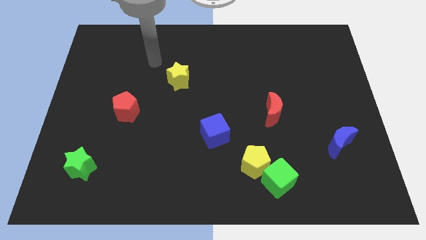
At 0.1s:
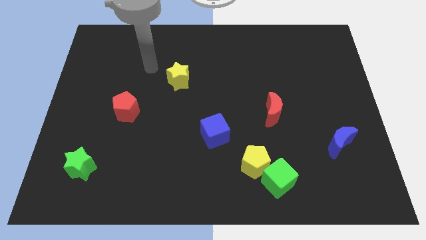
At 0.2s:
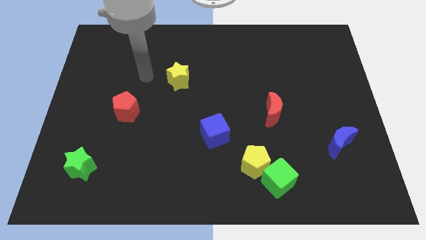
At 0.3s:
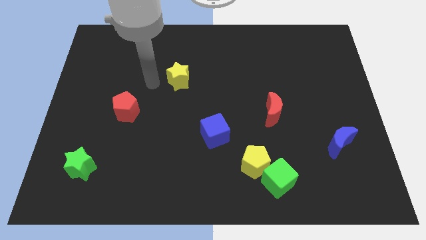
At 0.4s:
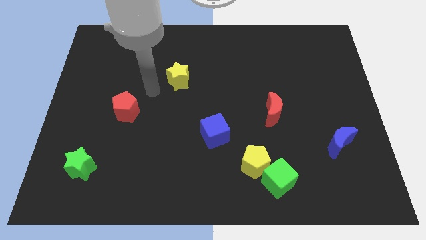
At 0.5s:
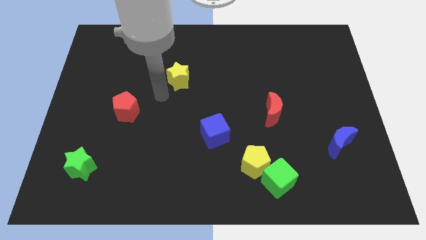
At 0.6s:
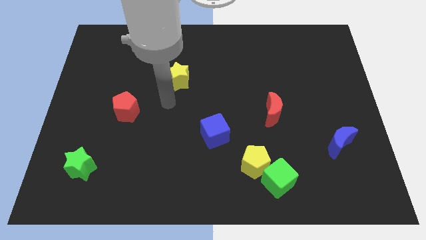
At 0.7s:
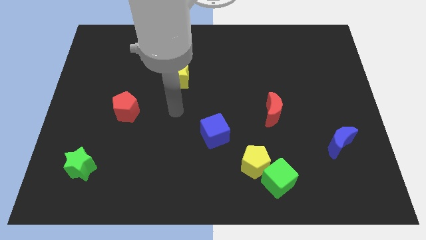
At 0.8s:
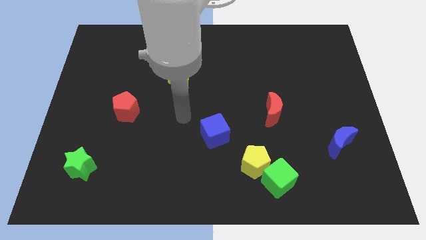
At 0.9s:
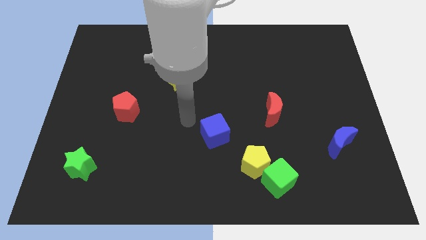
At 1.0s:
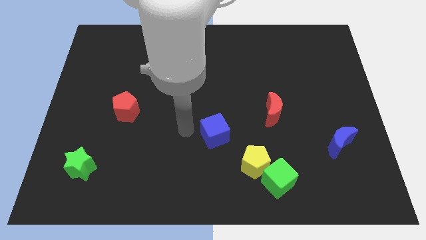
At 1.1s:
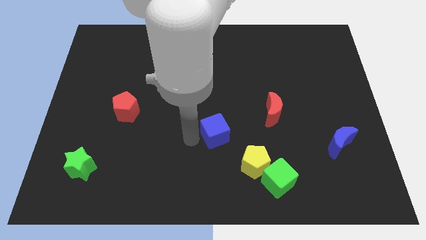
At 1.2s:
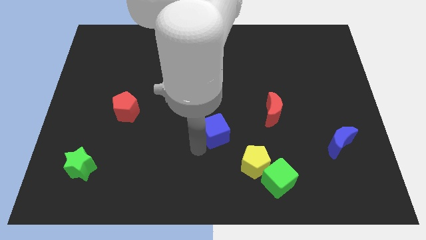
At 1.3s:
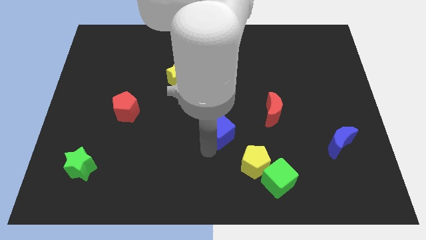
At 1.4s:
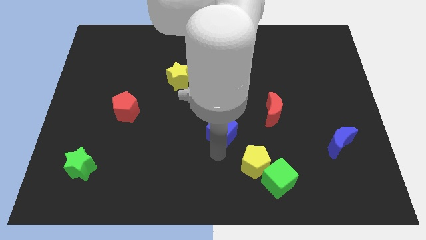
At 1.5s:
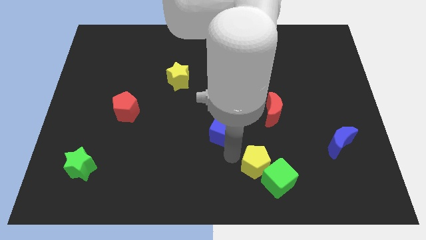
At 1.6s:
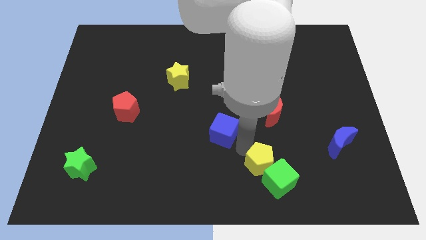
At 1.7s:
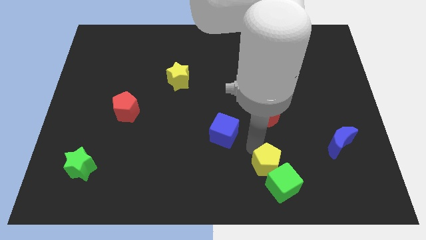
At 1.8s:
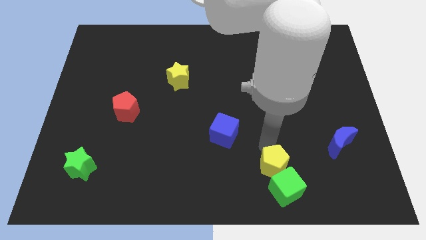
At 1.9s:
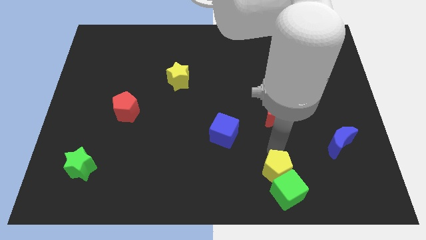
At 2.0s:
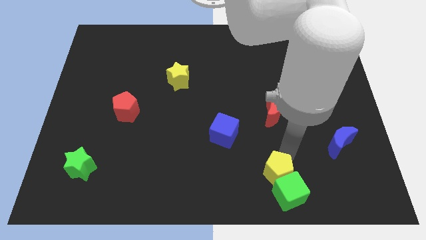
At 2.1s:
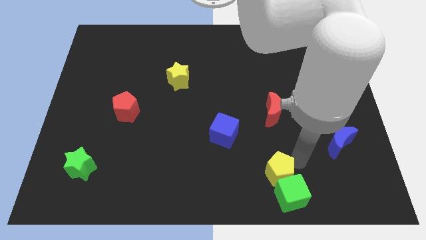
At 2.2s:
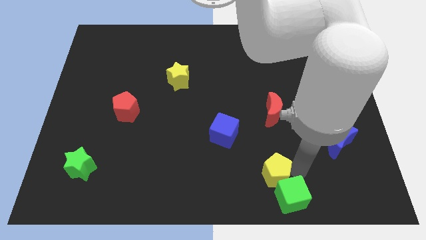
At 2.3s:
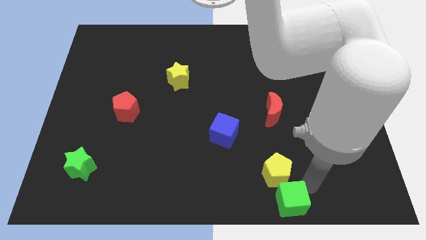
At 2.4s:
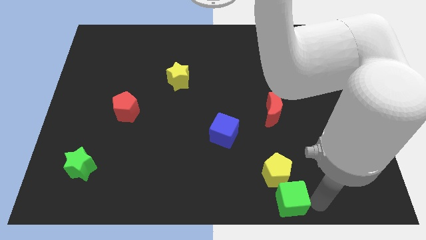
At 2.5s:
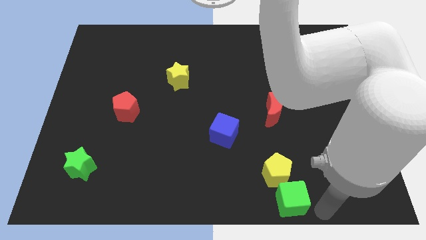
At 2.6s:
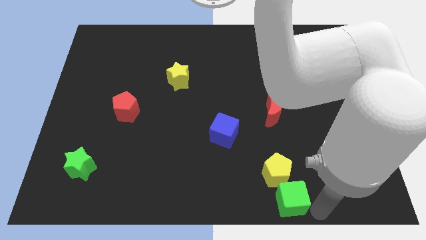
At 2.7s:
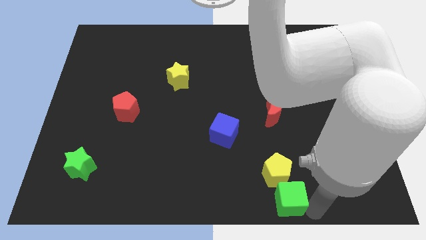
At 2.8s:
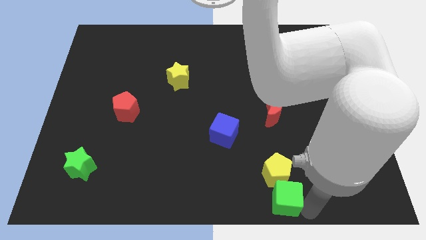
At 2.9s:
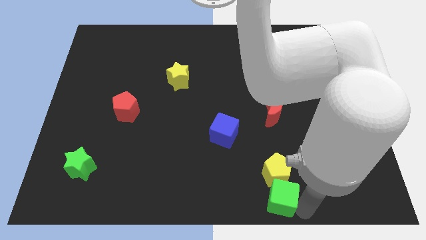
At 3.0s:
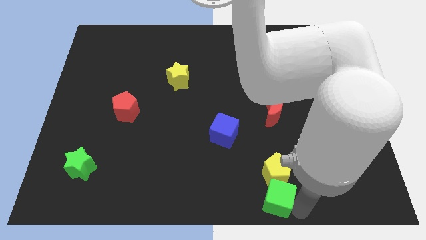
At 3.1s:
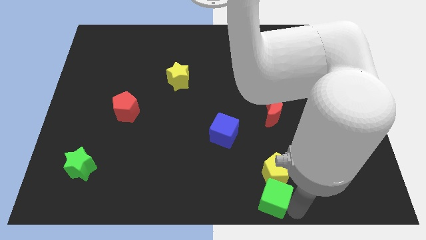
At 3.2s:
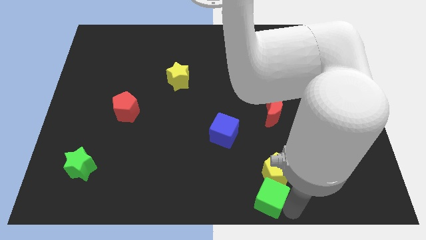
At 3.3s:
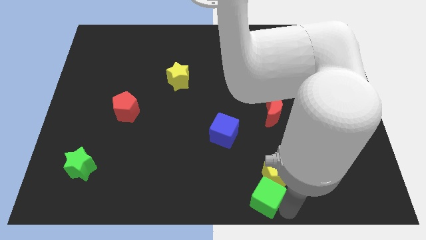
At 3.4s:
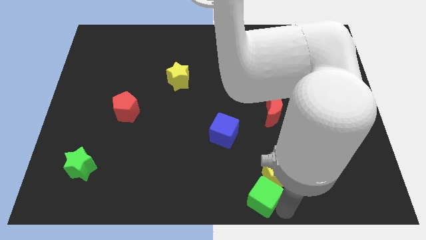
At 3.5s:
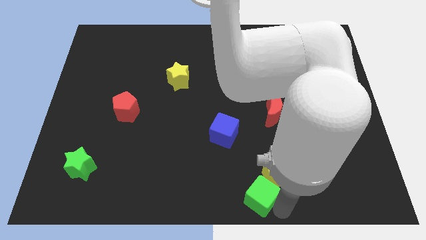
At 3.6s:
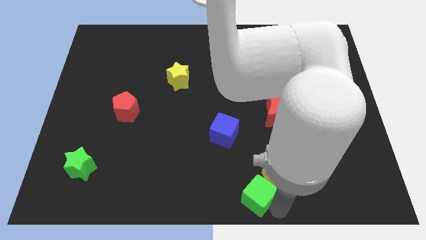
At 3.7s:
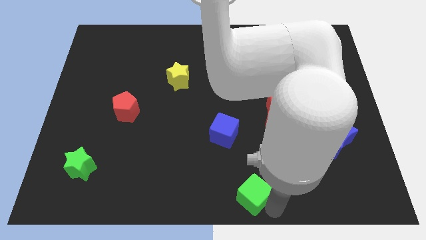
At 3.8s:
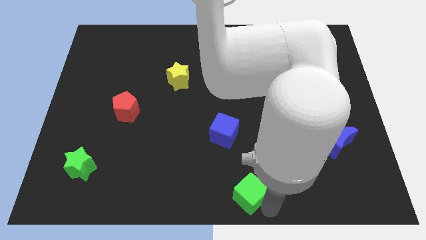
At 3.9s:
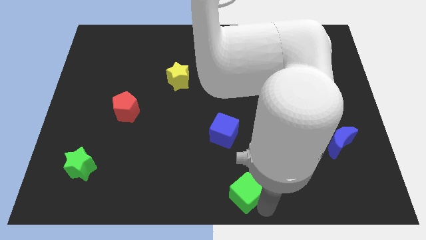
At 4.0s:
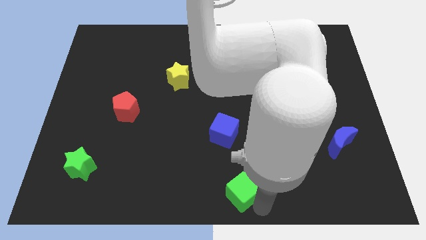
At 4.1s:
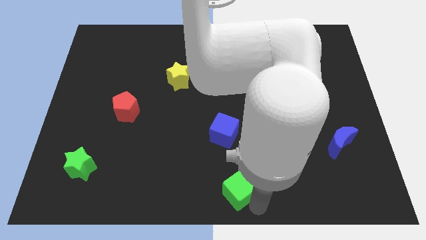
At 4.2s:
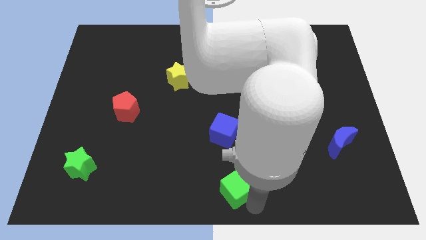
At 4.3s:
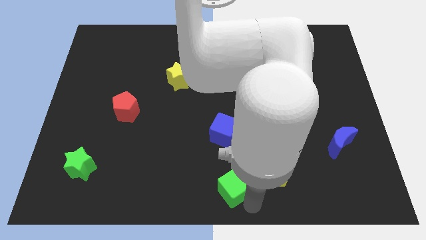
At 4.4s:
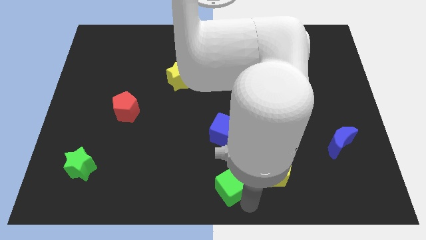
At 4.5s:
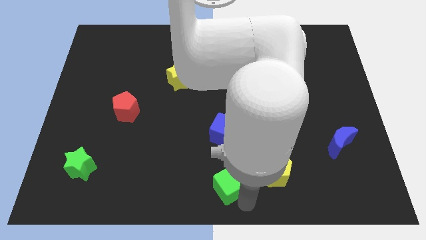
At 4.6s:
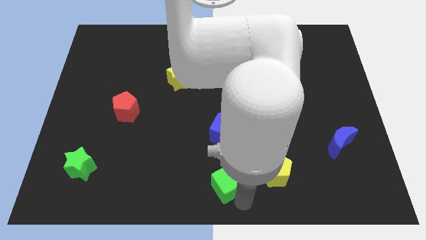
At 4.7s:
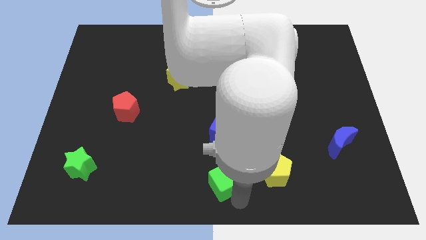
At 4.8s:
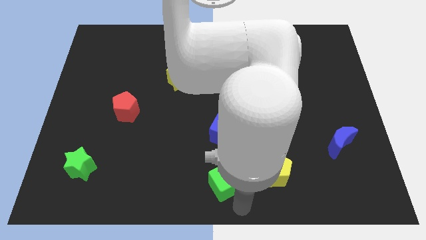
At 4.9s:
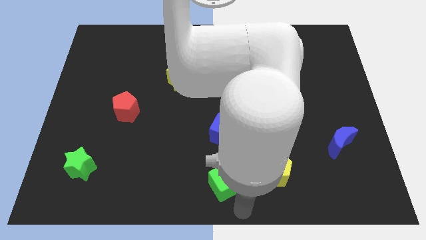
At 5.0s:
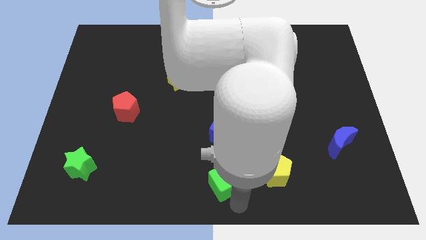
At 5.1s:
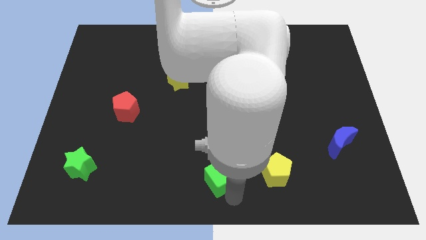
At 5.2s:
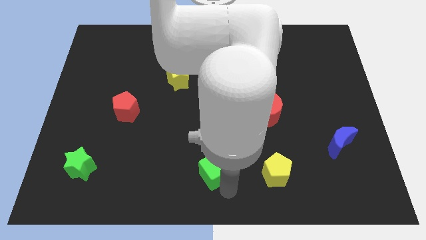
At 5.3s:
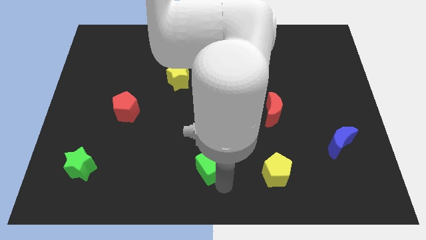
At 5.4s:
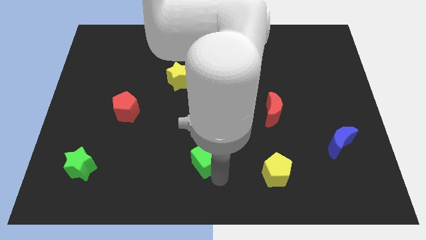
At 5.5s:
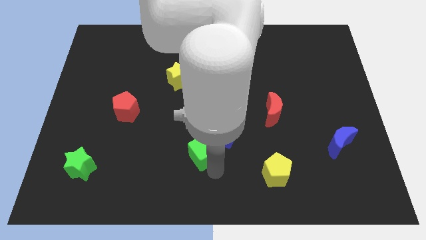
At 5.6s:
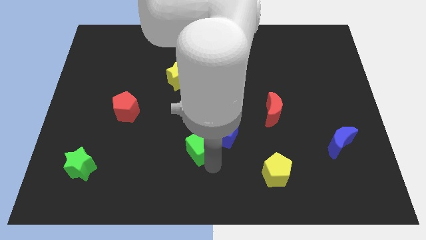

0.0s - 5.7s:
slide the green cube to the left of the blue cube

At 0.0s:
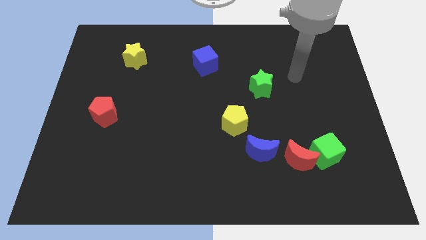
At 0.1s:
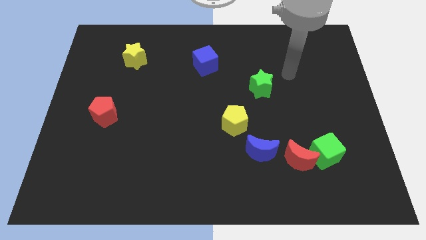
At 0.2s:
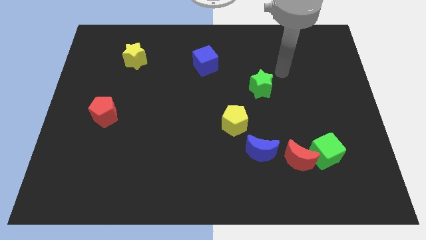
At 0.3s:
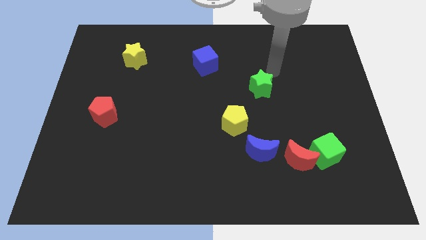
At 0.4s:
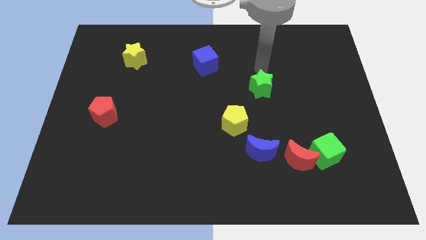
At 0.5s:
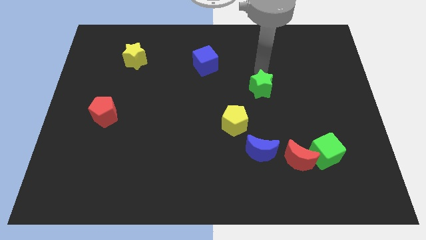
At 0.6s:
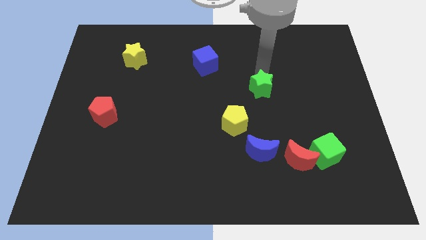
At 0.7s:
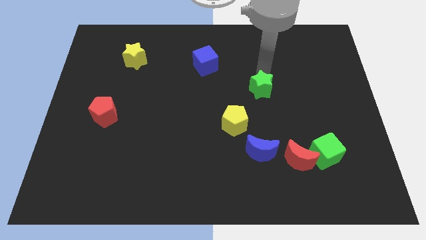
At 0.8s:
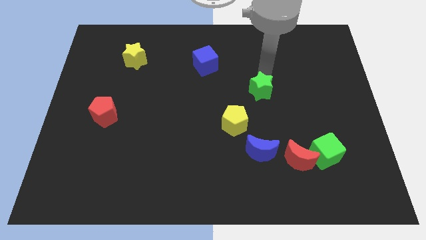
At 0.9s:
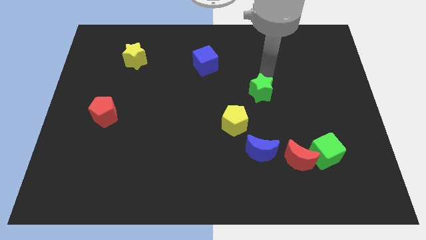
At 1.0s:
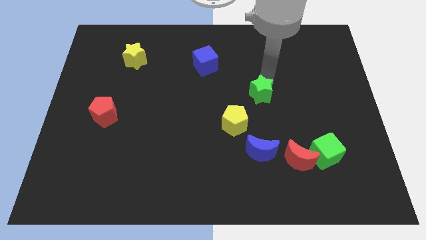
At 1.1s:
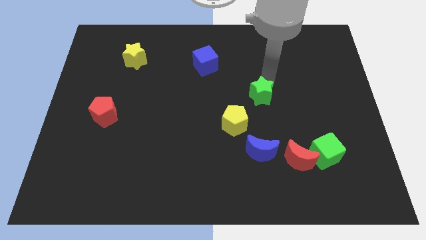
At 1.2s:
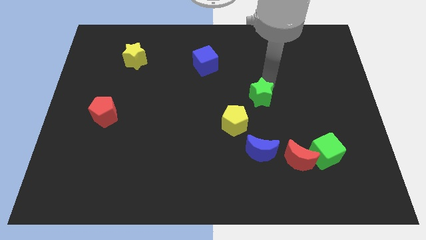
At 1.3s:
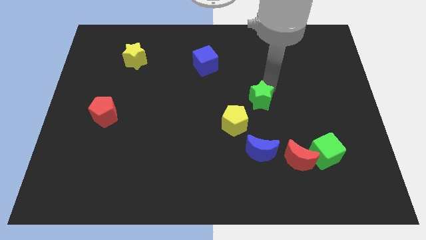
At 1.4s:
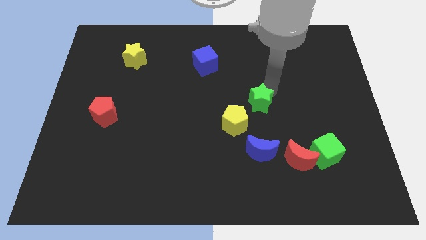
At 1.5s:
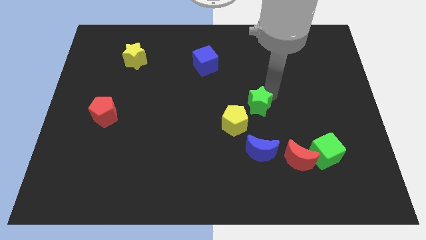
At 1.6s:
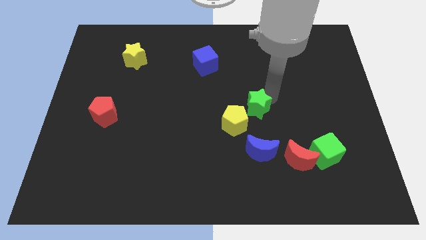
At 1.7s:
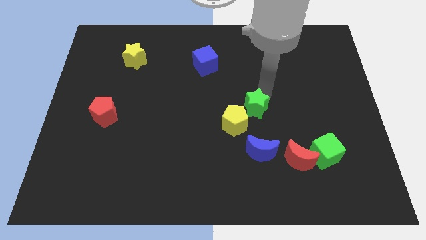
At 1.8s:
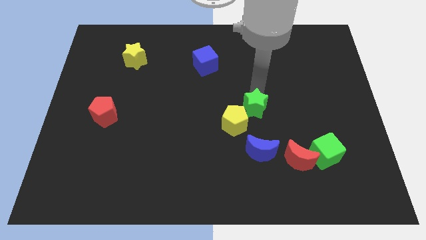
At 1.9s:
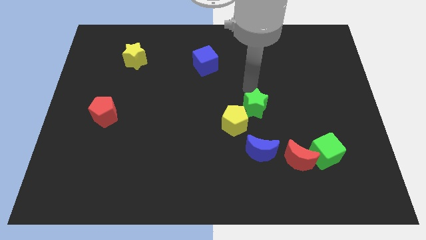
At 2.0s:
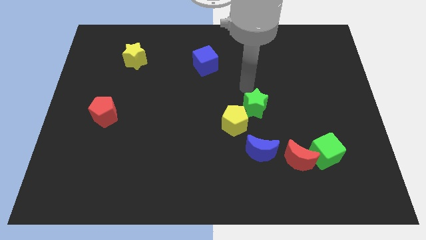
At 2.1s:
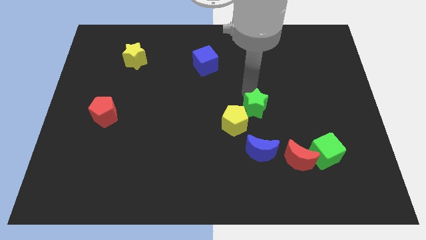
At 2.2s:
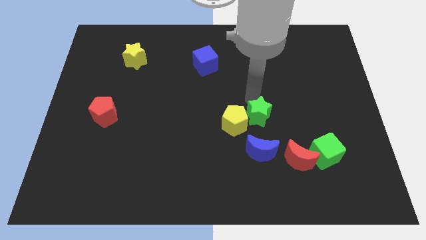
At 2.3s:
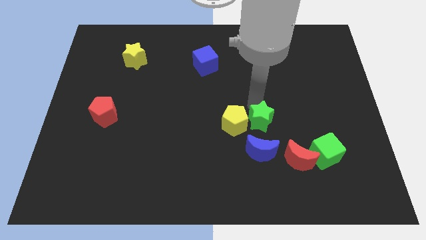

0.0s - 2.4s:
put the green star to the top left side of the red moon

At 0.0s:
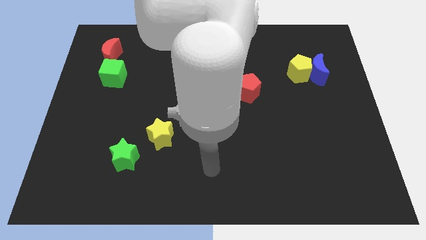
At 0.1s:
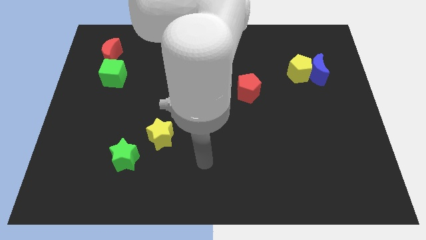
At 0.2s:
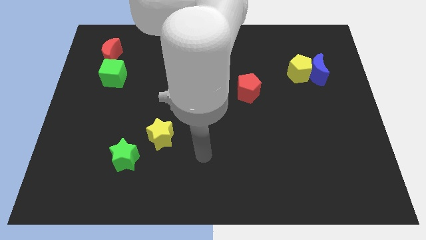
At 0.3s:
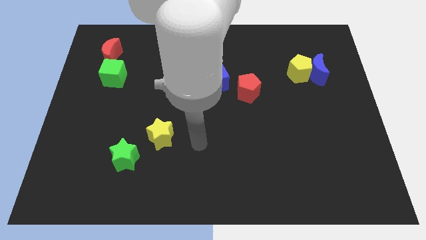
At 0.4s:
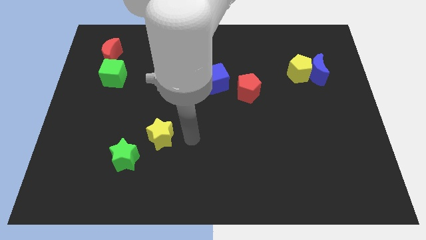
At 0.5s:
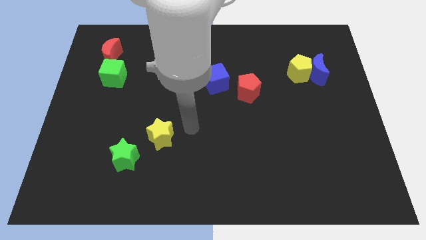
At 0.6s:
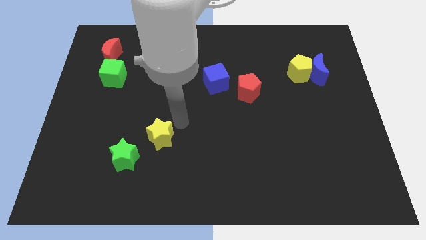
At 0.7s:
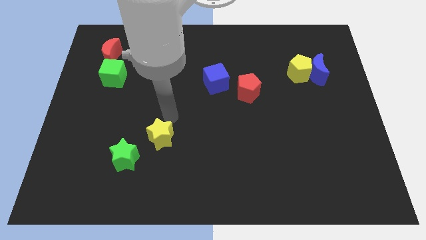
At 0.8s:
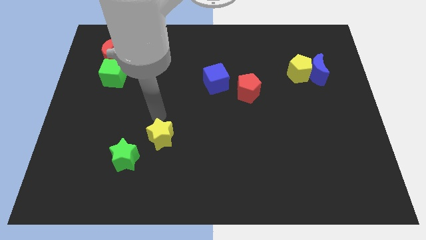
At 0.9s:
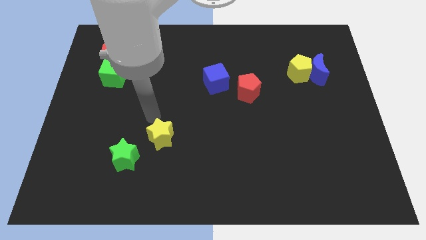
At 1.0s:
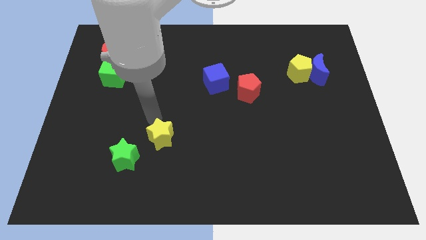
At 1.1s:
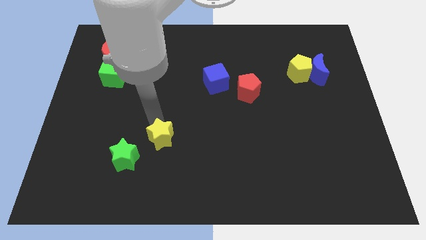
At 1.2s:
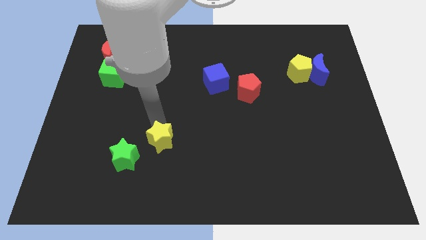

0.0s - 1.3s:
move the yellow star right of the green star
